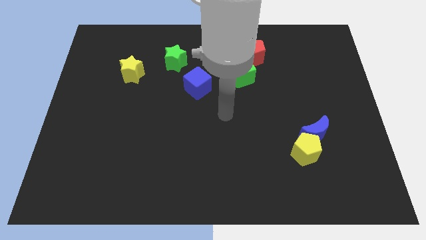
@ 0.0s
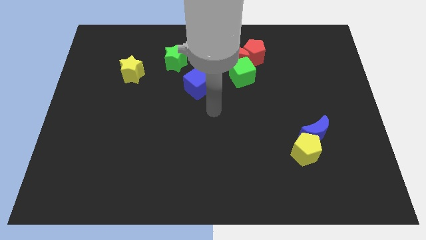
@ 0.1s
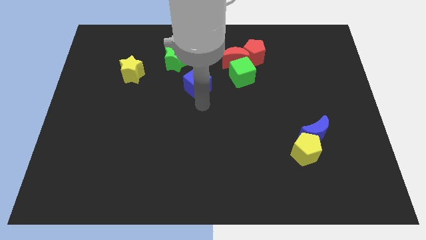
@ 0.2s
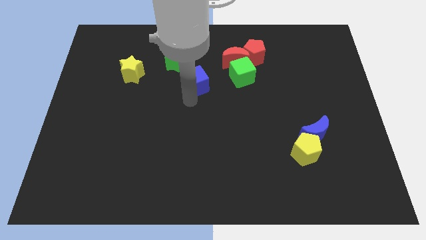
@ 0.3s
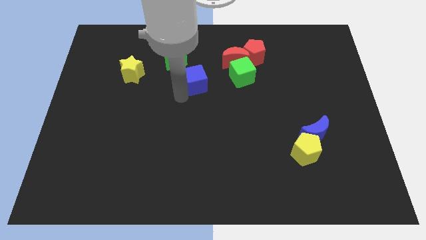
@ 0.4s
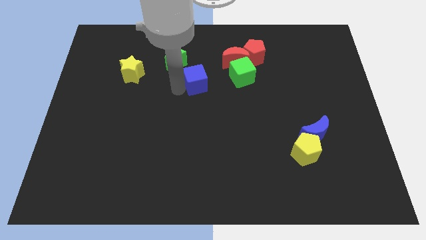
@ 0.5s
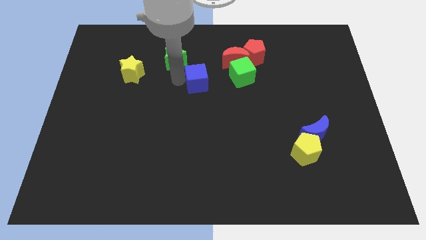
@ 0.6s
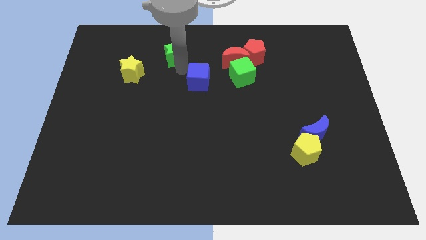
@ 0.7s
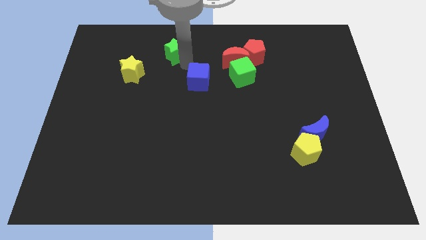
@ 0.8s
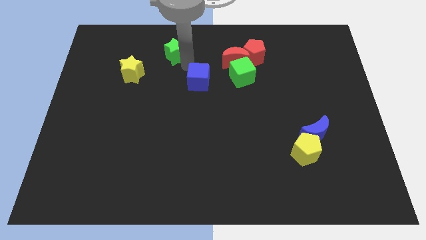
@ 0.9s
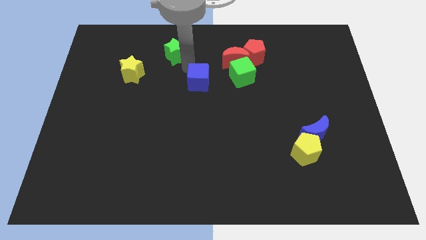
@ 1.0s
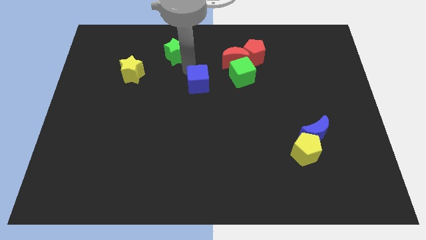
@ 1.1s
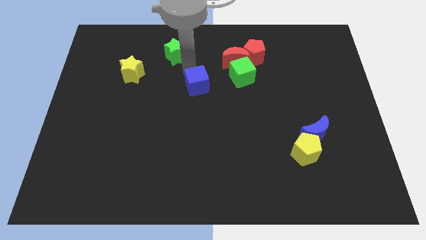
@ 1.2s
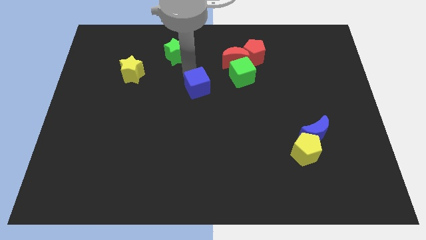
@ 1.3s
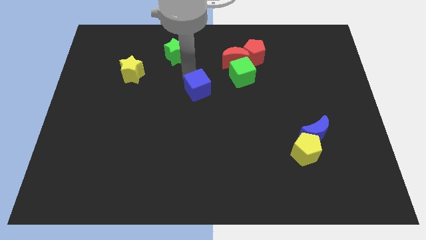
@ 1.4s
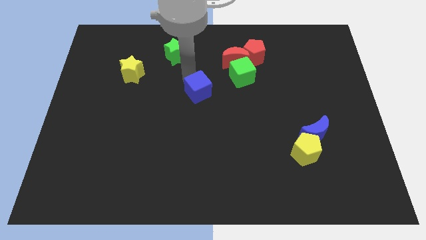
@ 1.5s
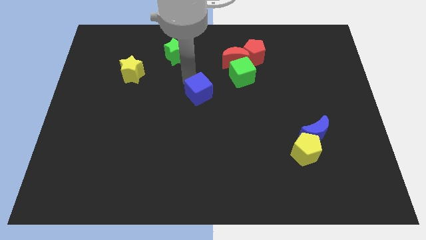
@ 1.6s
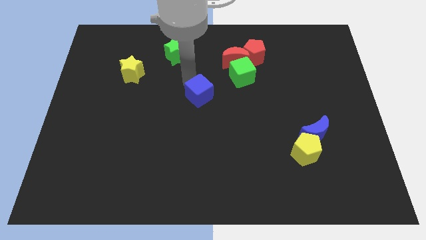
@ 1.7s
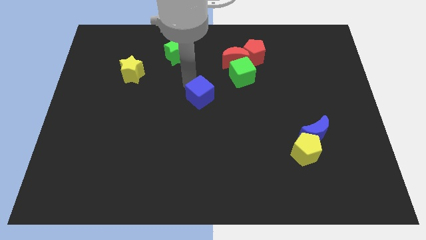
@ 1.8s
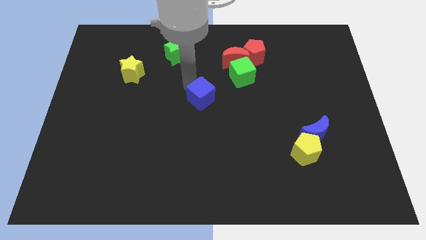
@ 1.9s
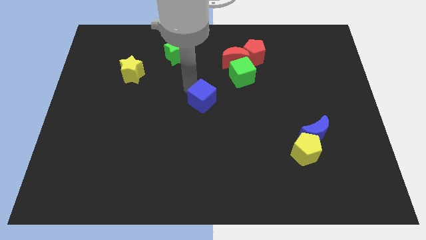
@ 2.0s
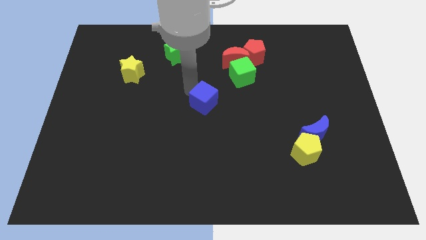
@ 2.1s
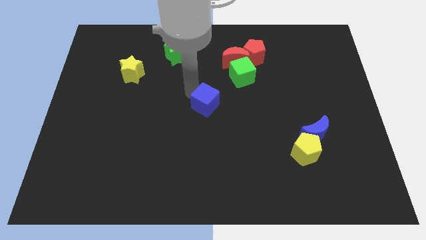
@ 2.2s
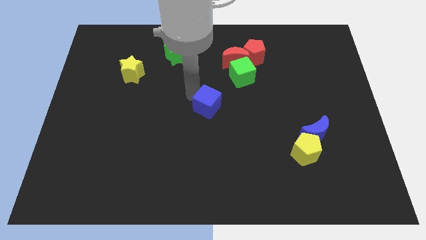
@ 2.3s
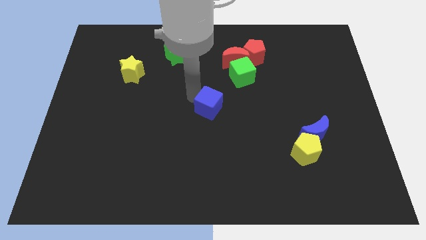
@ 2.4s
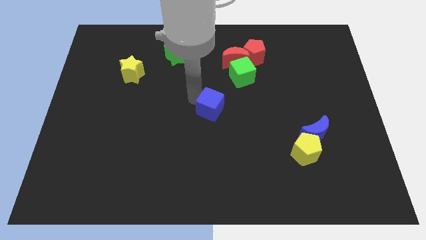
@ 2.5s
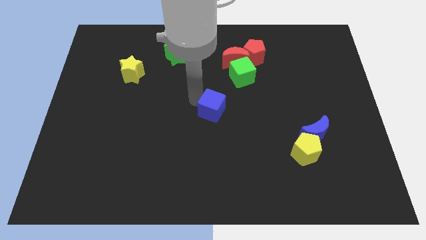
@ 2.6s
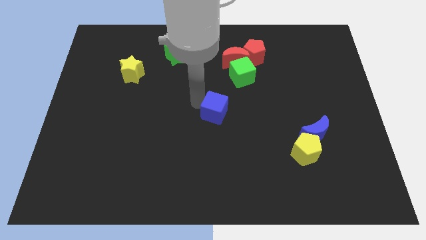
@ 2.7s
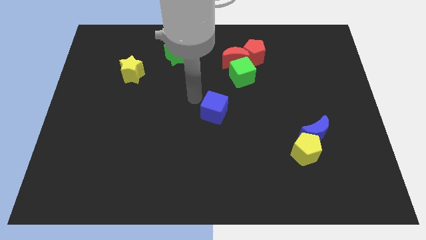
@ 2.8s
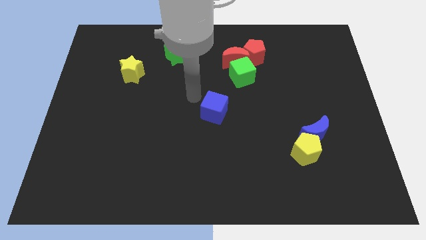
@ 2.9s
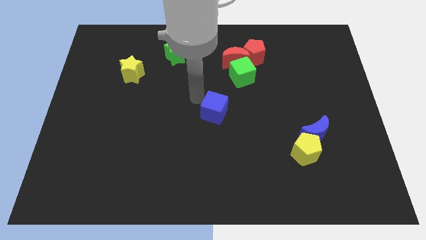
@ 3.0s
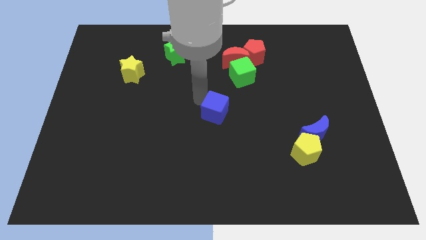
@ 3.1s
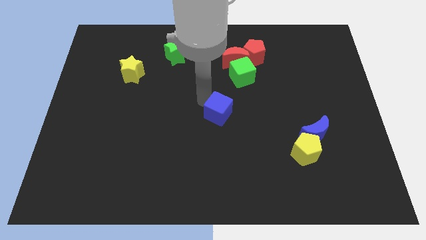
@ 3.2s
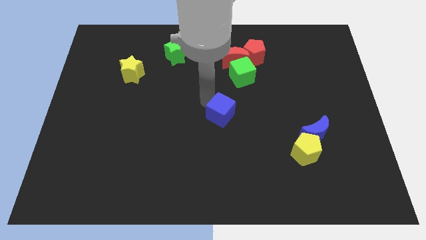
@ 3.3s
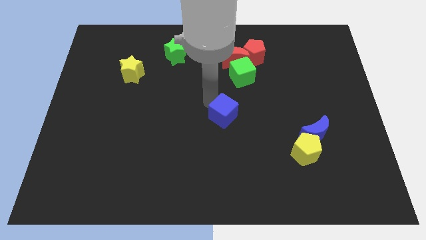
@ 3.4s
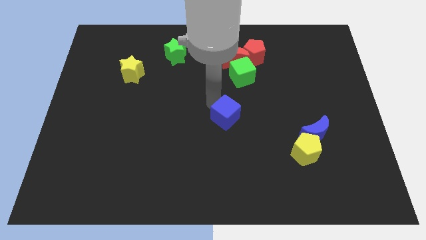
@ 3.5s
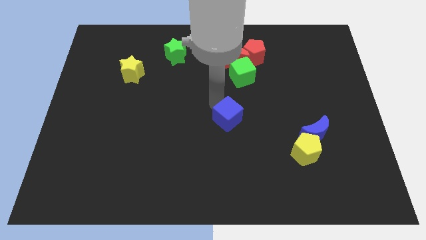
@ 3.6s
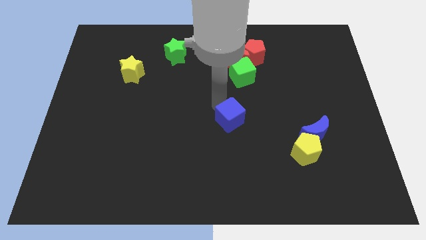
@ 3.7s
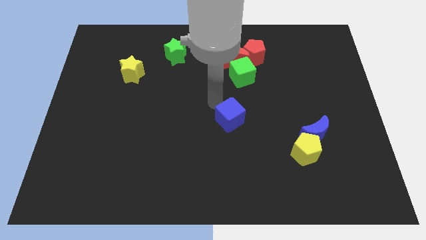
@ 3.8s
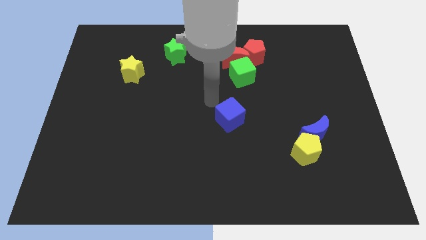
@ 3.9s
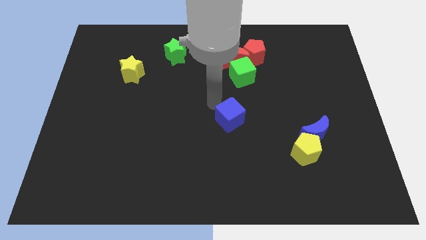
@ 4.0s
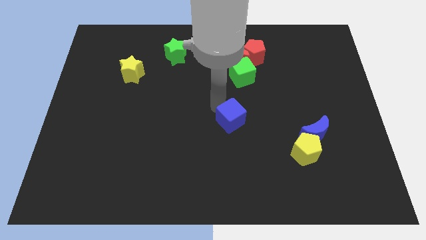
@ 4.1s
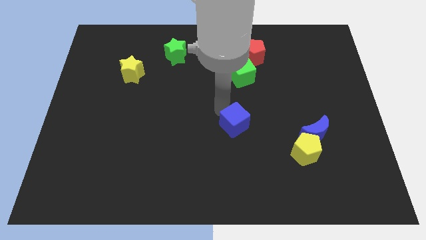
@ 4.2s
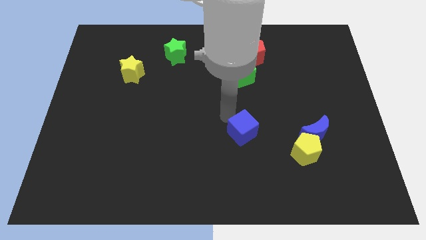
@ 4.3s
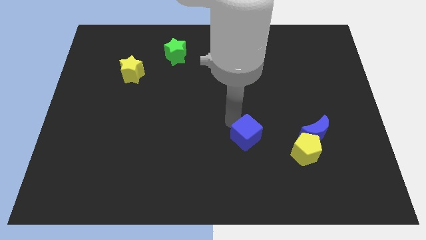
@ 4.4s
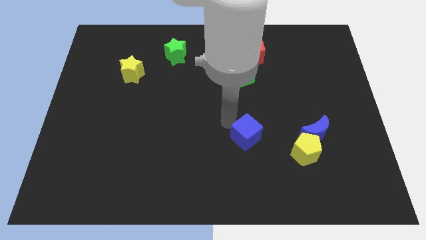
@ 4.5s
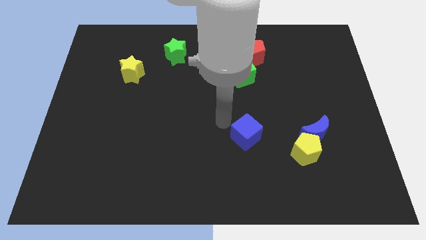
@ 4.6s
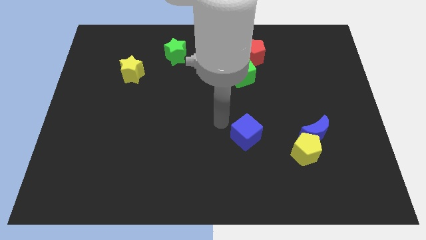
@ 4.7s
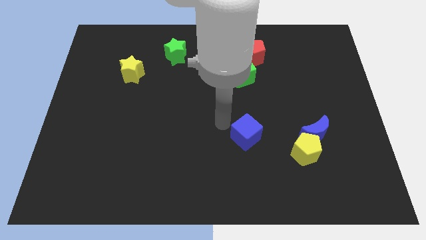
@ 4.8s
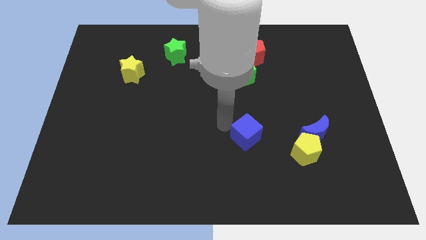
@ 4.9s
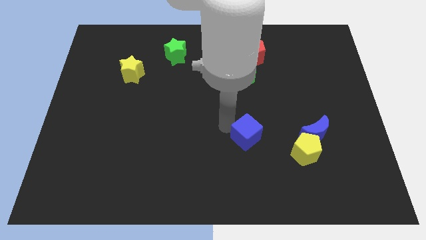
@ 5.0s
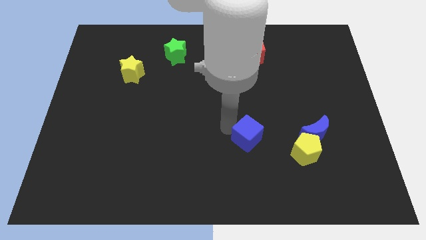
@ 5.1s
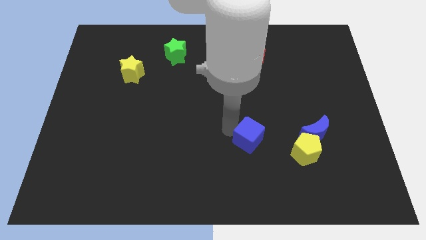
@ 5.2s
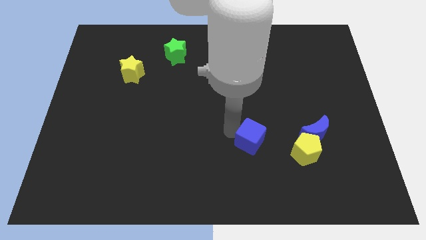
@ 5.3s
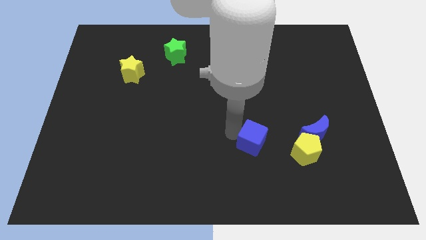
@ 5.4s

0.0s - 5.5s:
push the blue cube downwards and to the right

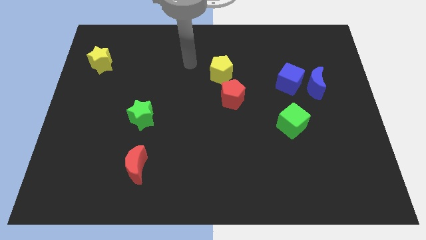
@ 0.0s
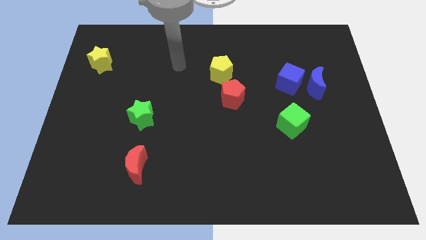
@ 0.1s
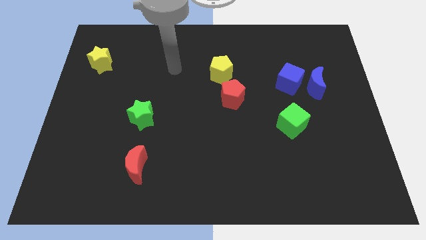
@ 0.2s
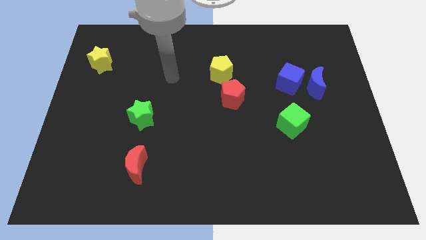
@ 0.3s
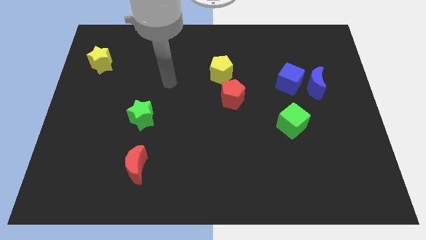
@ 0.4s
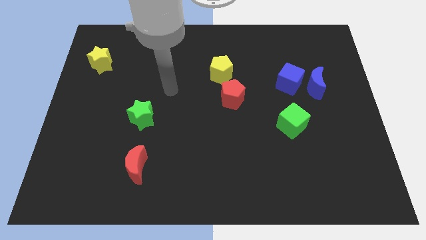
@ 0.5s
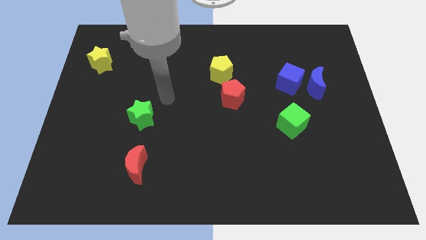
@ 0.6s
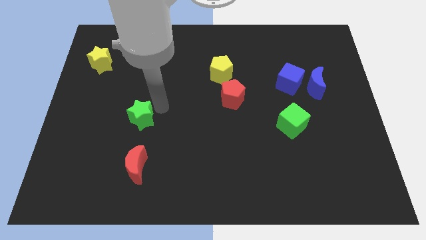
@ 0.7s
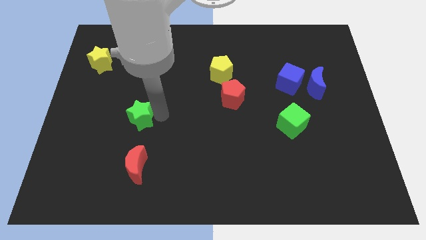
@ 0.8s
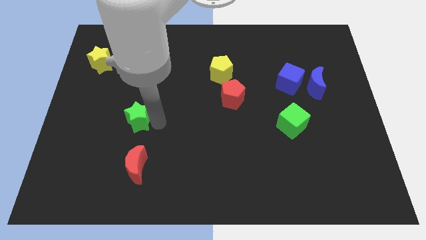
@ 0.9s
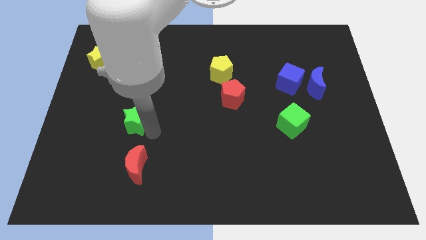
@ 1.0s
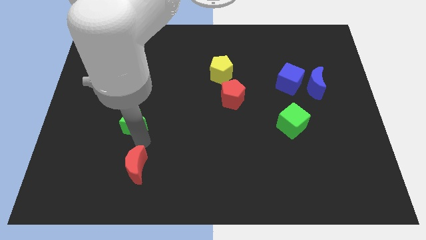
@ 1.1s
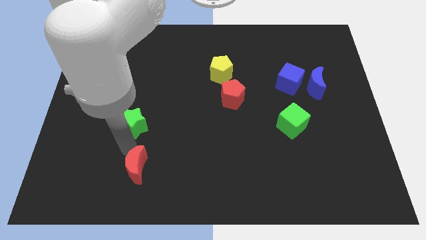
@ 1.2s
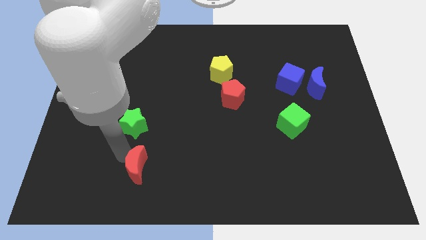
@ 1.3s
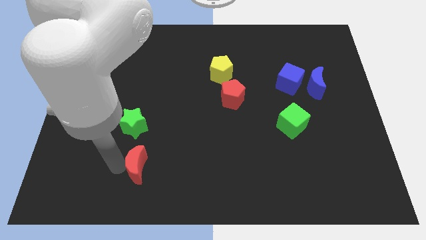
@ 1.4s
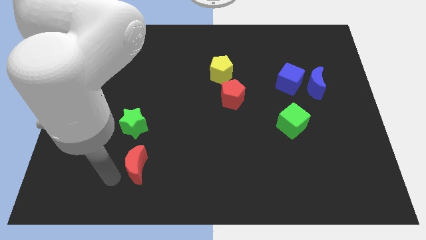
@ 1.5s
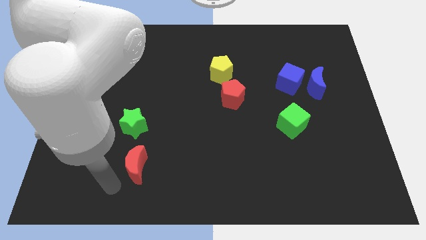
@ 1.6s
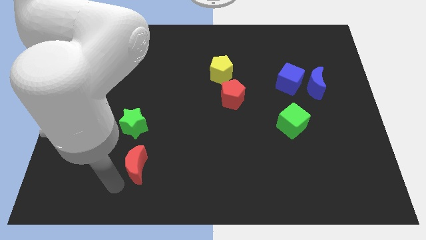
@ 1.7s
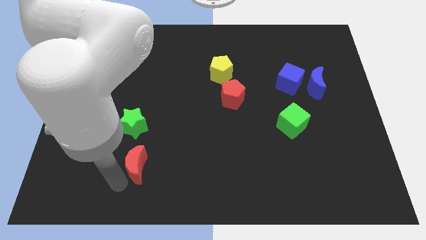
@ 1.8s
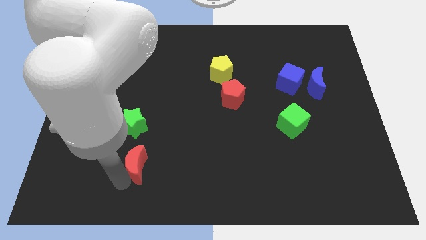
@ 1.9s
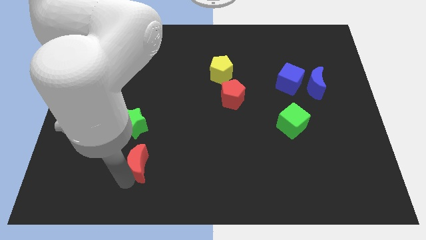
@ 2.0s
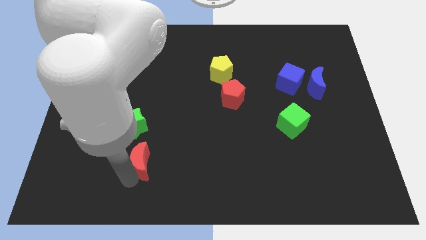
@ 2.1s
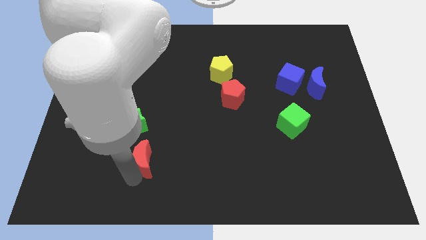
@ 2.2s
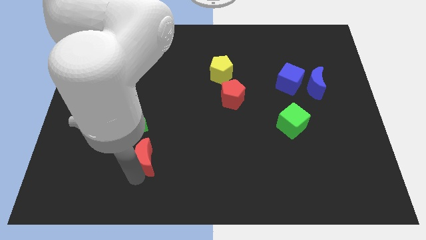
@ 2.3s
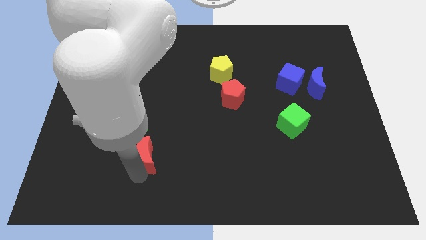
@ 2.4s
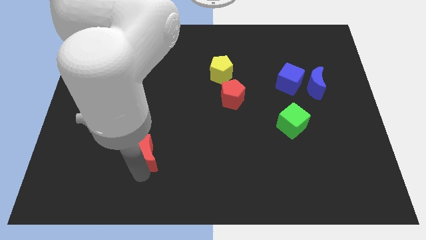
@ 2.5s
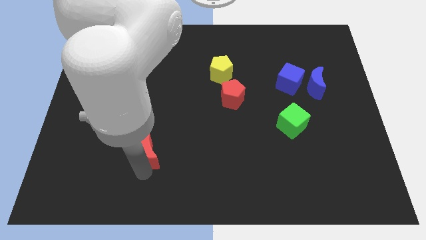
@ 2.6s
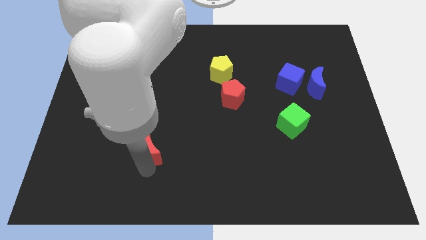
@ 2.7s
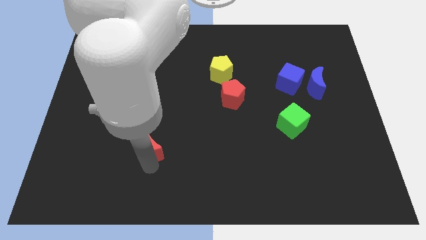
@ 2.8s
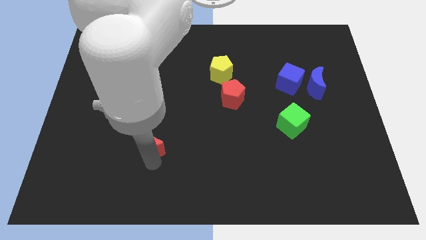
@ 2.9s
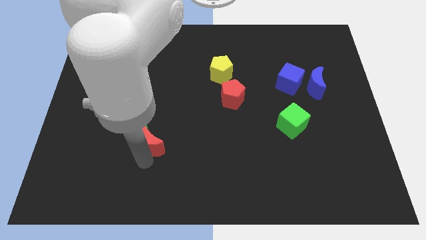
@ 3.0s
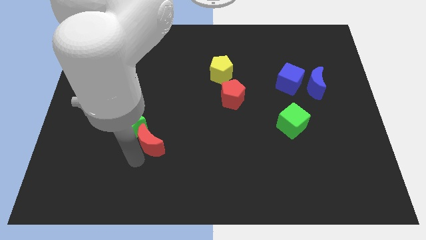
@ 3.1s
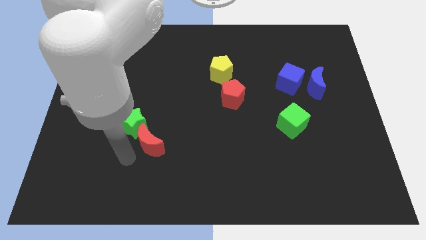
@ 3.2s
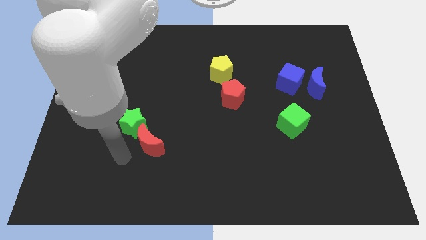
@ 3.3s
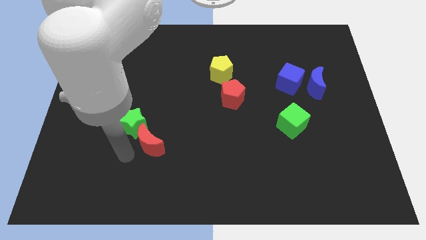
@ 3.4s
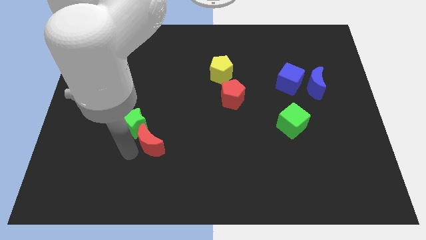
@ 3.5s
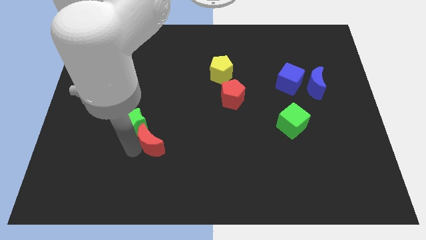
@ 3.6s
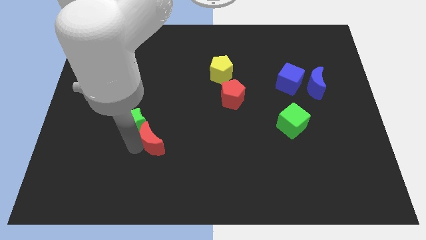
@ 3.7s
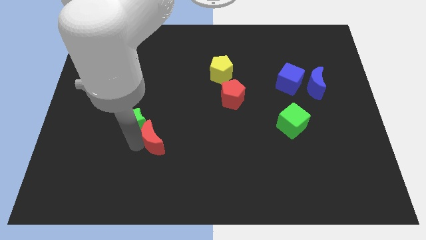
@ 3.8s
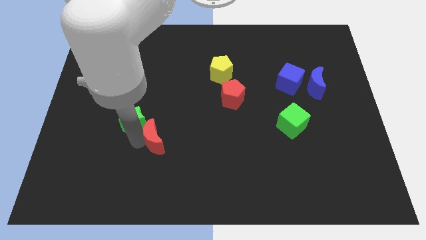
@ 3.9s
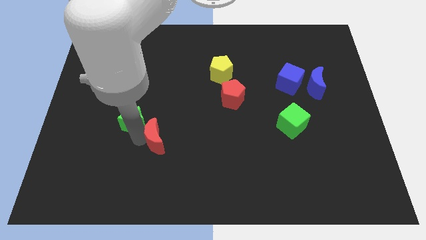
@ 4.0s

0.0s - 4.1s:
move the red moon a little upwards and to the right
